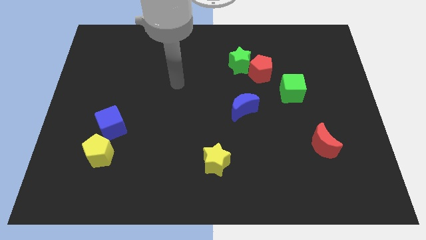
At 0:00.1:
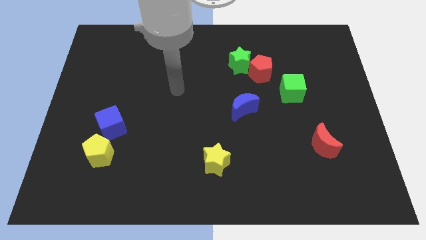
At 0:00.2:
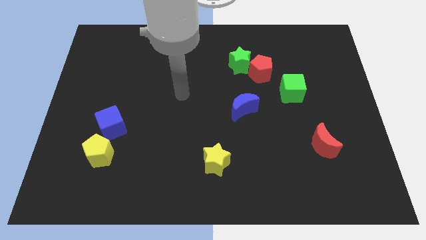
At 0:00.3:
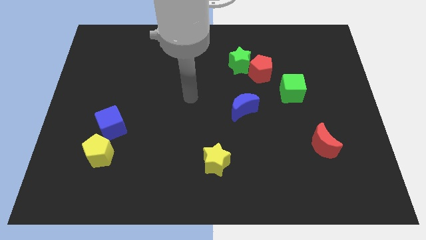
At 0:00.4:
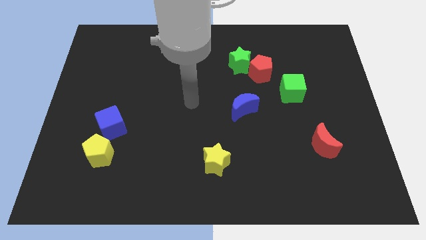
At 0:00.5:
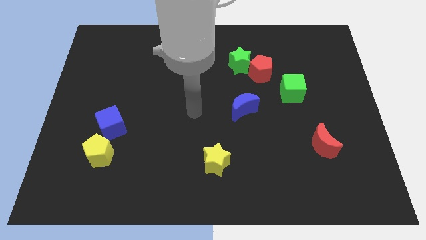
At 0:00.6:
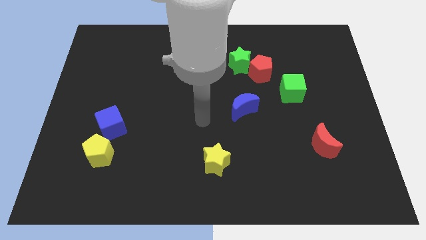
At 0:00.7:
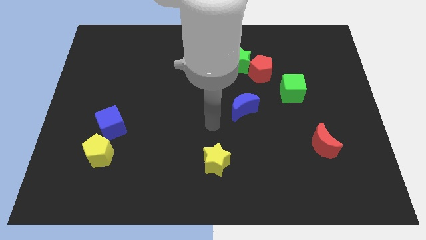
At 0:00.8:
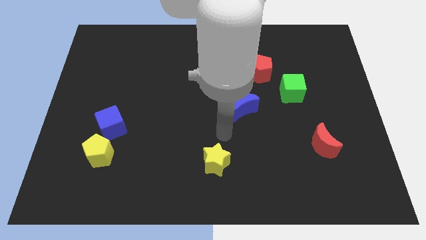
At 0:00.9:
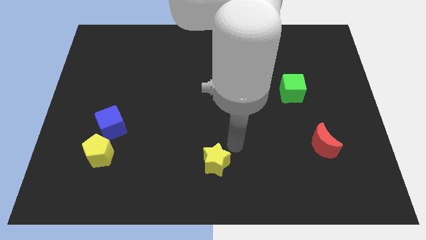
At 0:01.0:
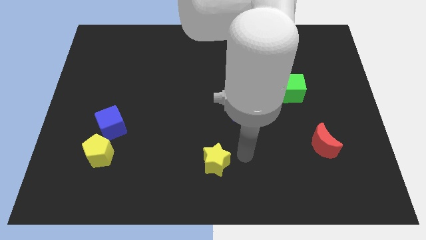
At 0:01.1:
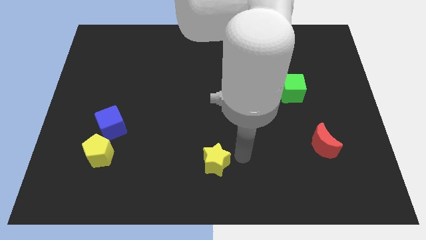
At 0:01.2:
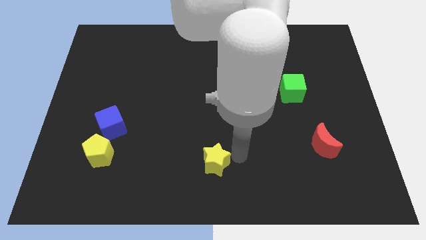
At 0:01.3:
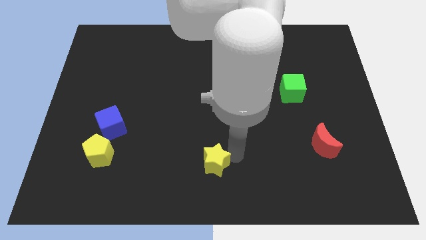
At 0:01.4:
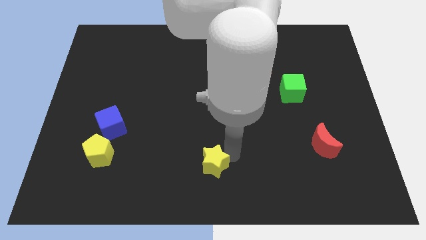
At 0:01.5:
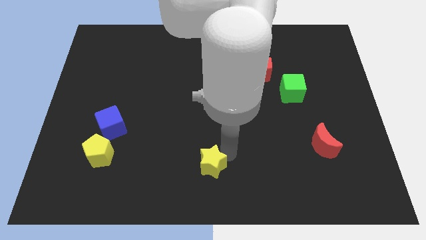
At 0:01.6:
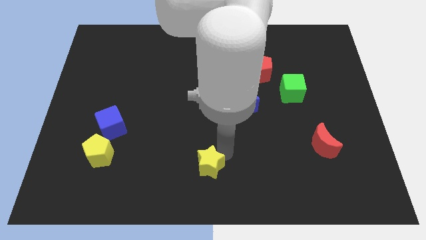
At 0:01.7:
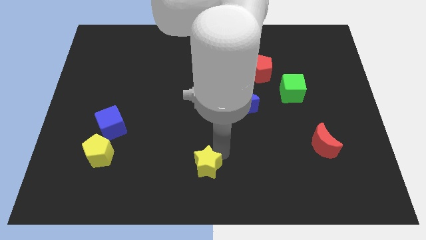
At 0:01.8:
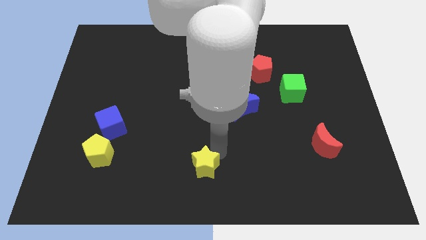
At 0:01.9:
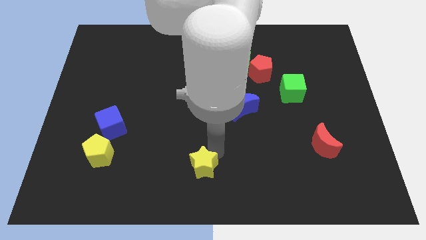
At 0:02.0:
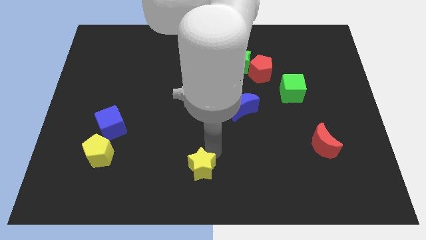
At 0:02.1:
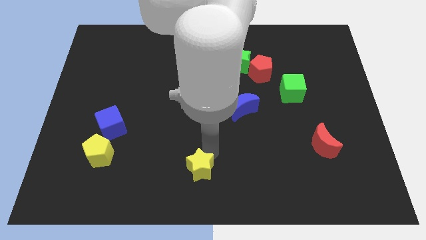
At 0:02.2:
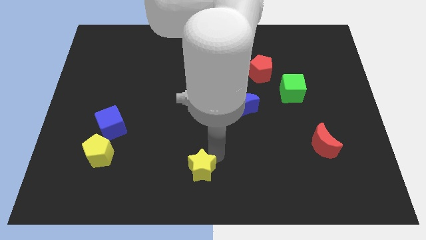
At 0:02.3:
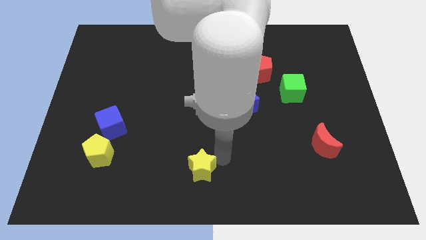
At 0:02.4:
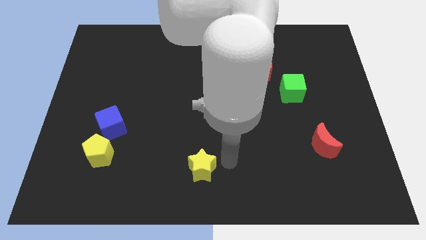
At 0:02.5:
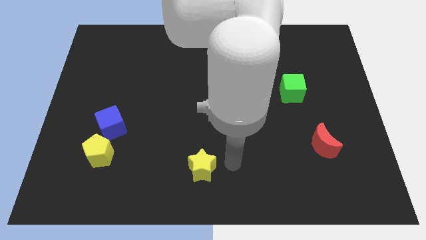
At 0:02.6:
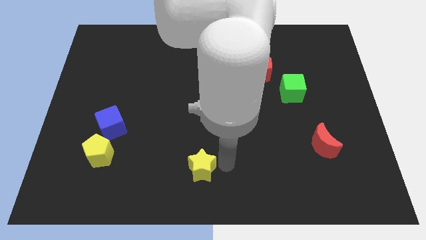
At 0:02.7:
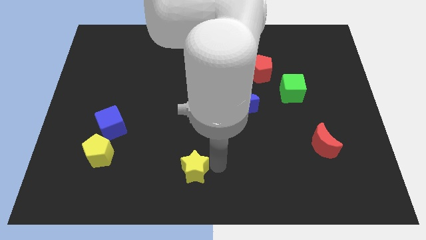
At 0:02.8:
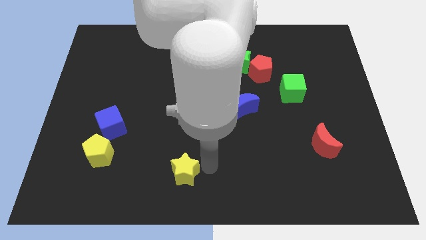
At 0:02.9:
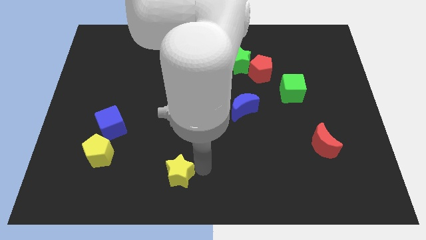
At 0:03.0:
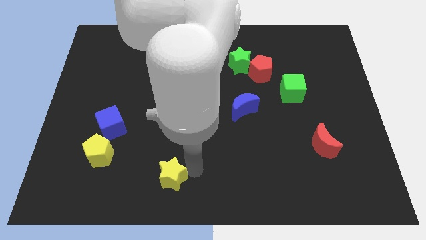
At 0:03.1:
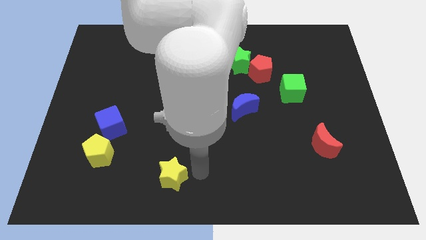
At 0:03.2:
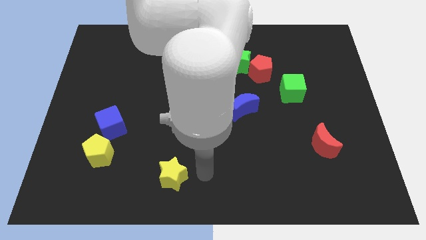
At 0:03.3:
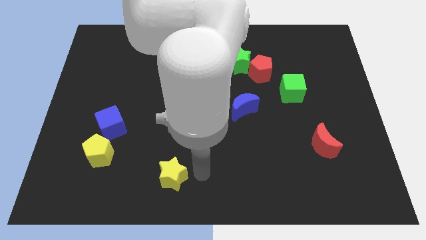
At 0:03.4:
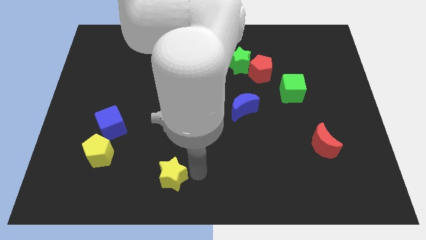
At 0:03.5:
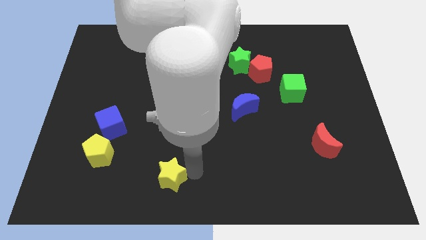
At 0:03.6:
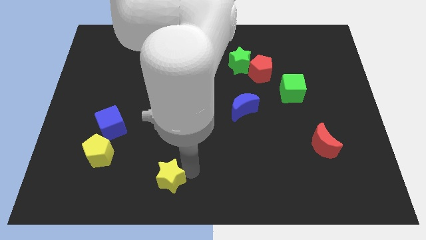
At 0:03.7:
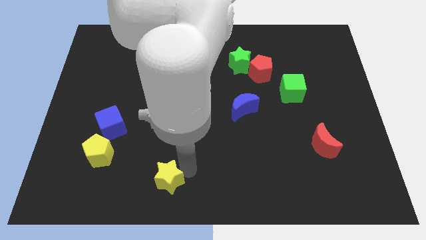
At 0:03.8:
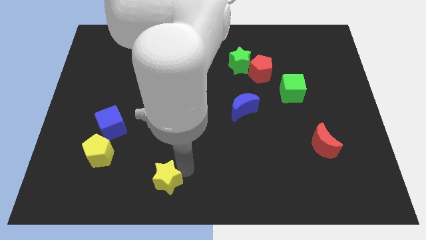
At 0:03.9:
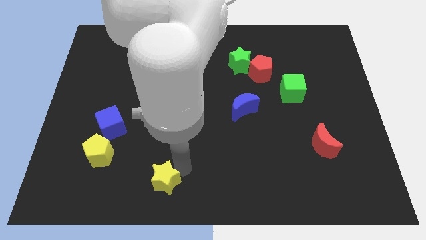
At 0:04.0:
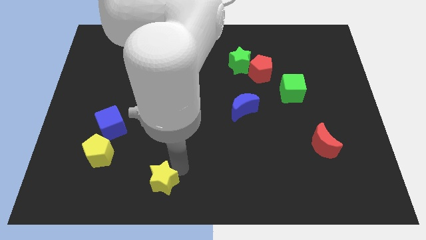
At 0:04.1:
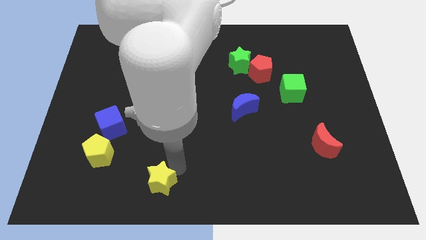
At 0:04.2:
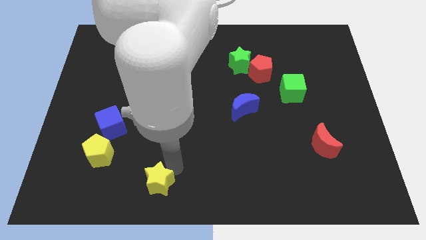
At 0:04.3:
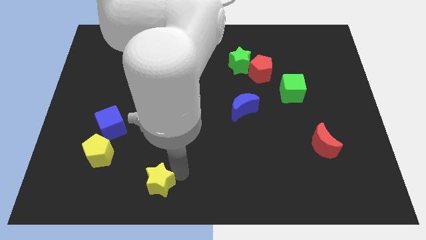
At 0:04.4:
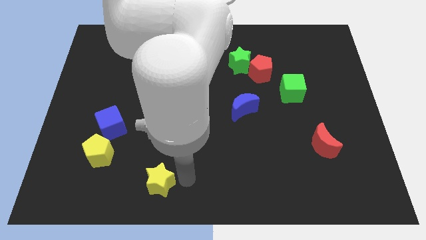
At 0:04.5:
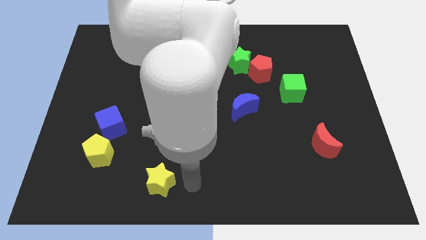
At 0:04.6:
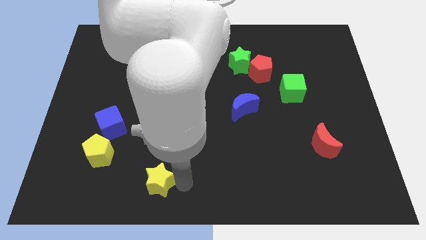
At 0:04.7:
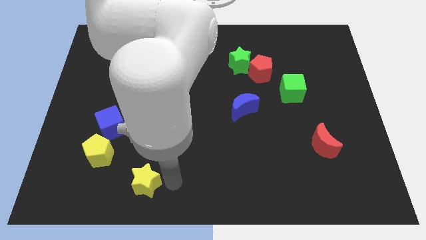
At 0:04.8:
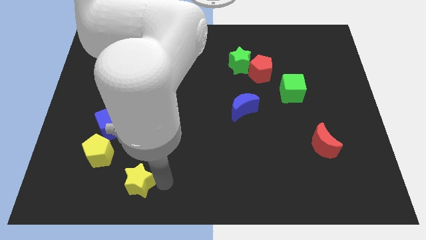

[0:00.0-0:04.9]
move the yellow star diagonally down and to the right of the yellow pentagon

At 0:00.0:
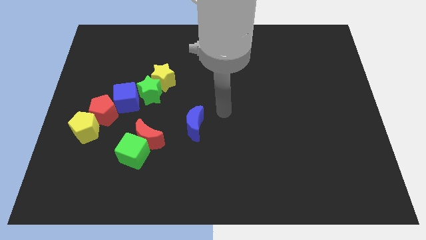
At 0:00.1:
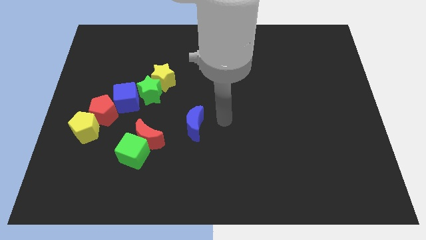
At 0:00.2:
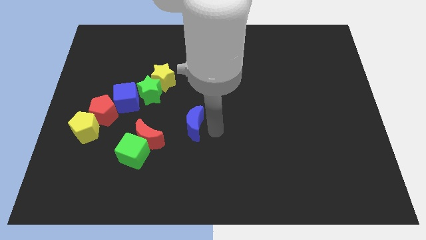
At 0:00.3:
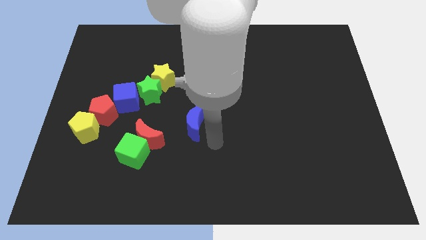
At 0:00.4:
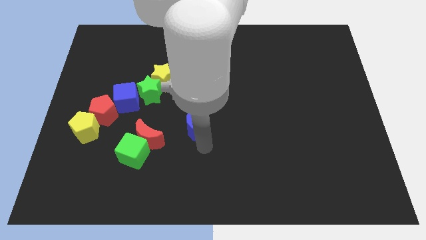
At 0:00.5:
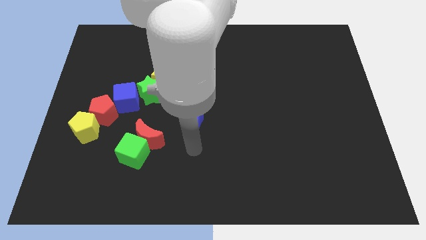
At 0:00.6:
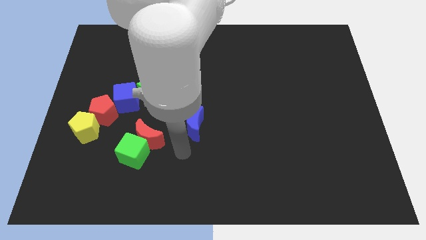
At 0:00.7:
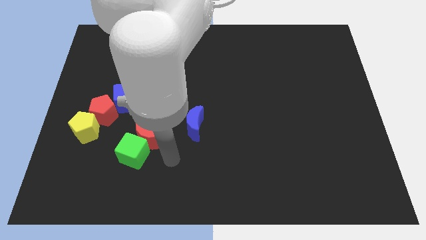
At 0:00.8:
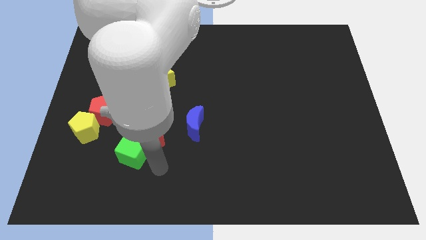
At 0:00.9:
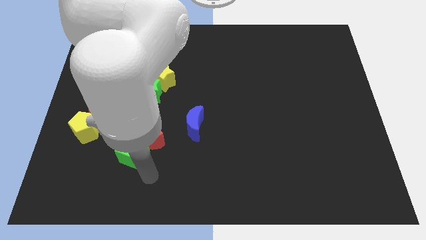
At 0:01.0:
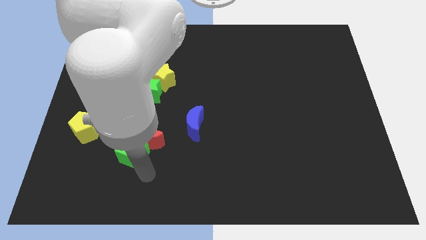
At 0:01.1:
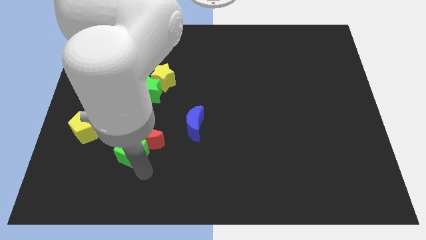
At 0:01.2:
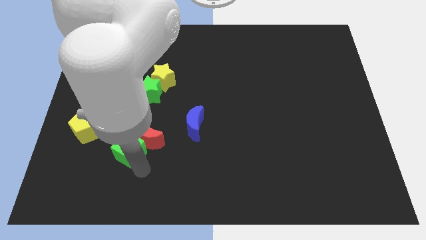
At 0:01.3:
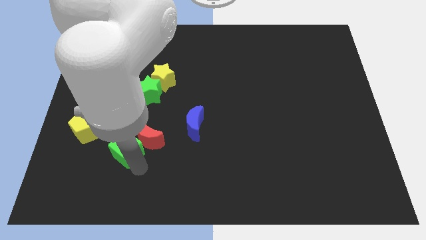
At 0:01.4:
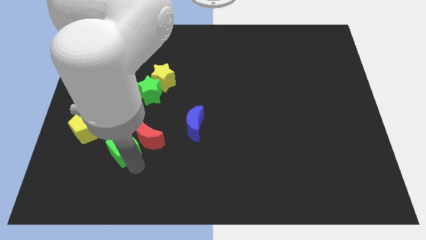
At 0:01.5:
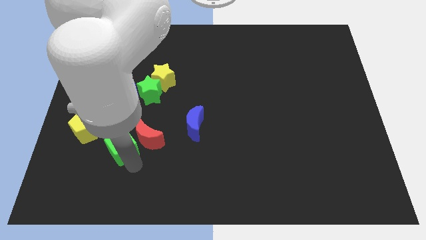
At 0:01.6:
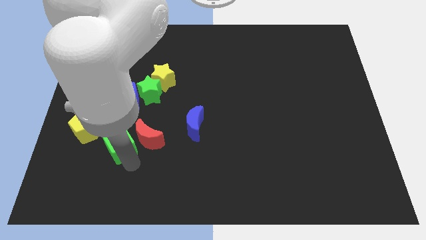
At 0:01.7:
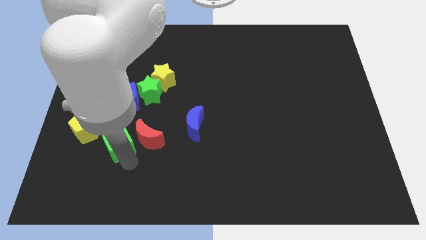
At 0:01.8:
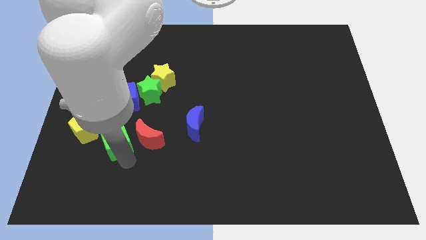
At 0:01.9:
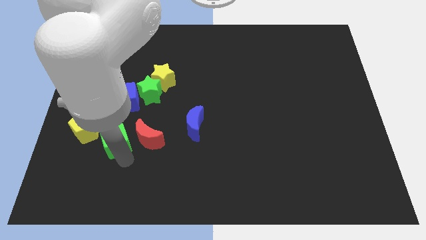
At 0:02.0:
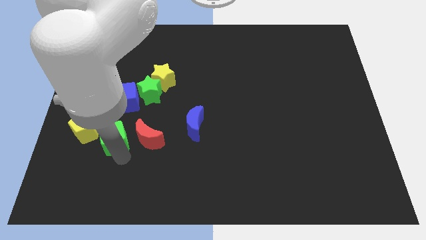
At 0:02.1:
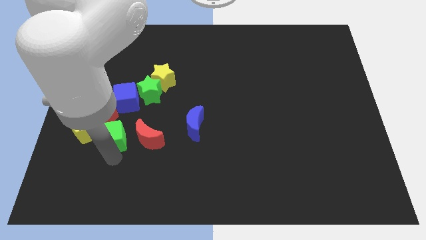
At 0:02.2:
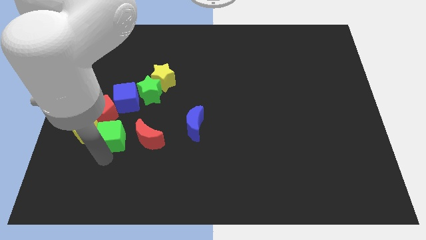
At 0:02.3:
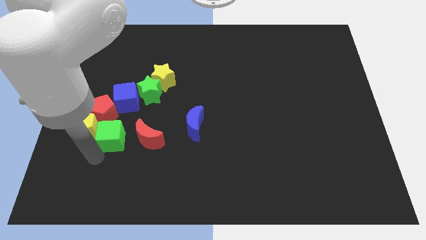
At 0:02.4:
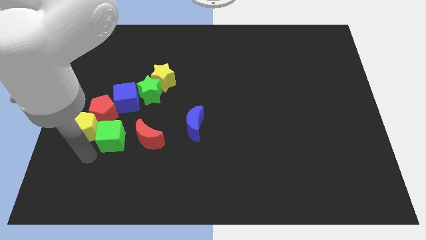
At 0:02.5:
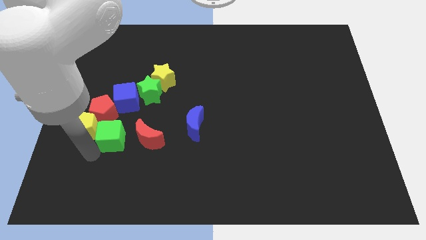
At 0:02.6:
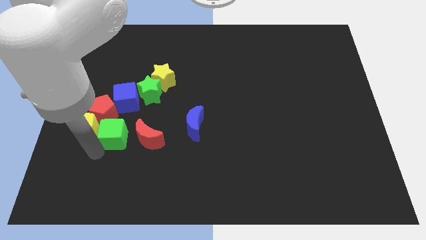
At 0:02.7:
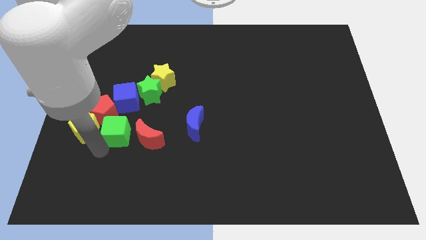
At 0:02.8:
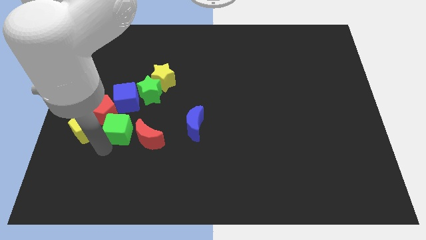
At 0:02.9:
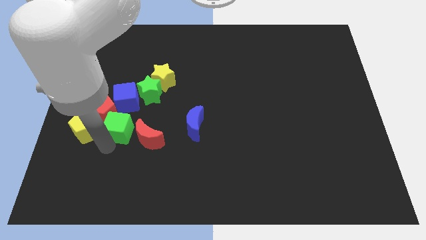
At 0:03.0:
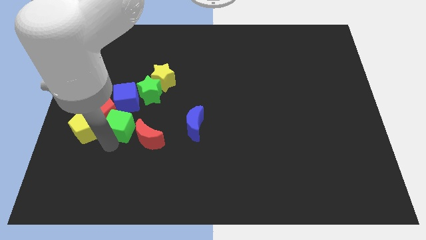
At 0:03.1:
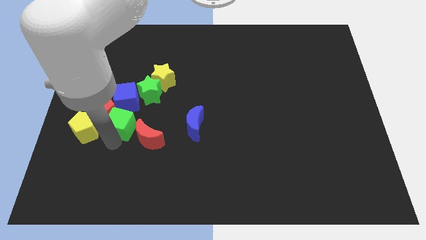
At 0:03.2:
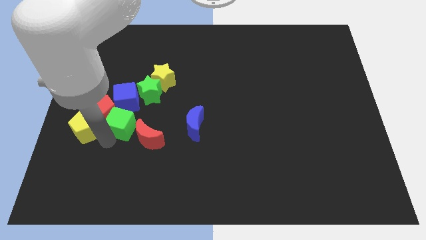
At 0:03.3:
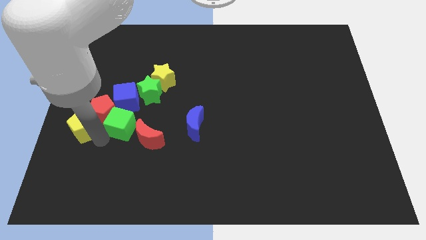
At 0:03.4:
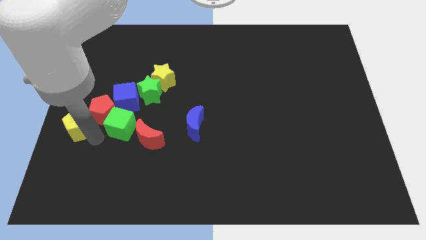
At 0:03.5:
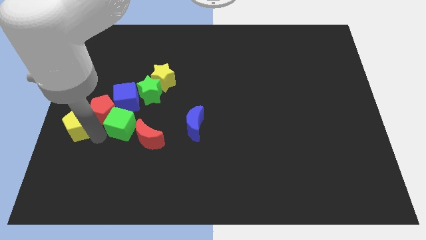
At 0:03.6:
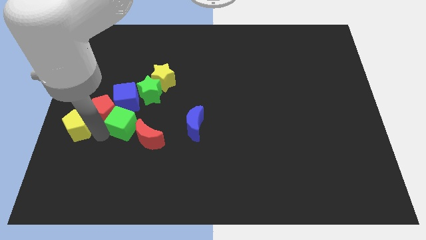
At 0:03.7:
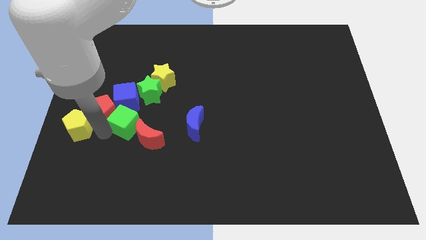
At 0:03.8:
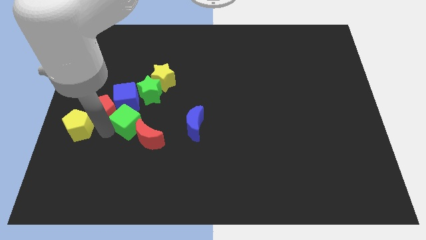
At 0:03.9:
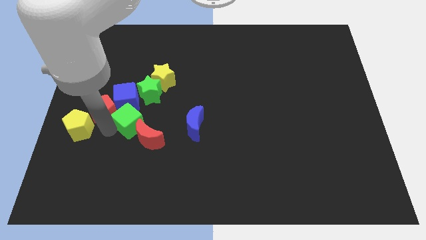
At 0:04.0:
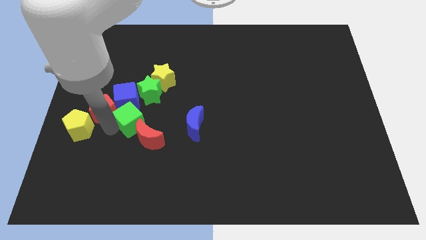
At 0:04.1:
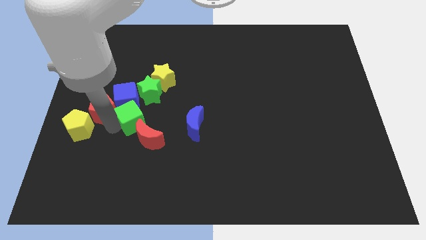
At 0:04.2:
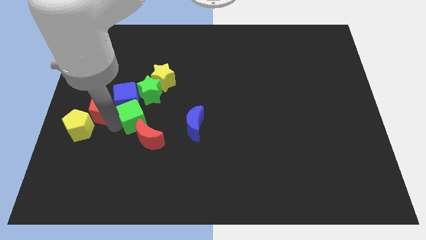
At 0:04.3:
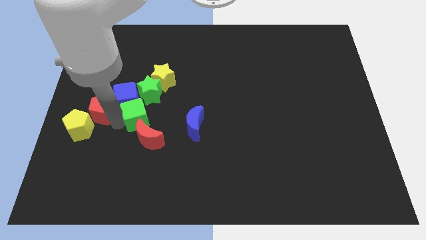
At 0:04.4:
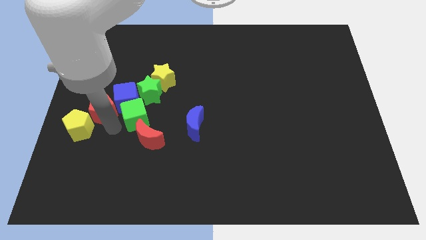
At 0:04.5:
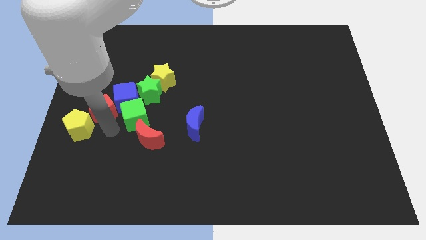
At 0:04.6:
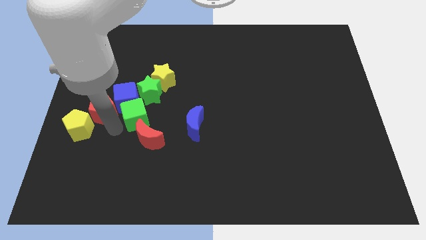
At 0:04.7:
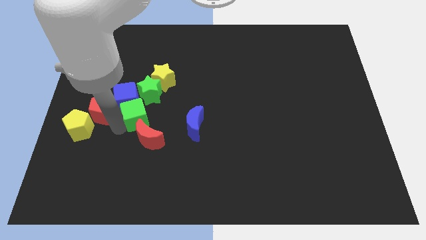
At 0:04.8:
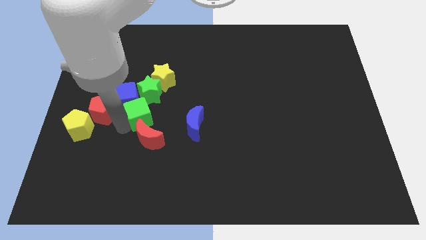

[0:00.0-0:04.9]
move the green cube to the right of the blue cube
